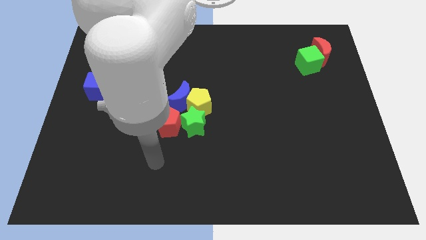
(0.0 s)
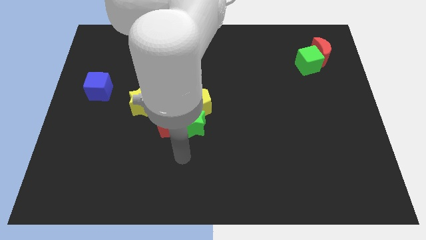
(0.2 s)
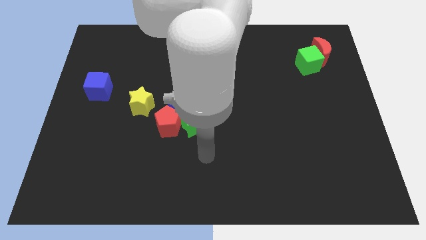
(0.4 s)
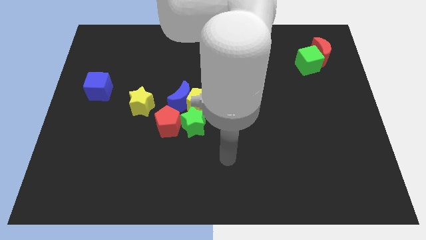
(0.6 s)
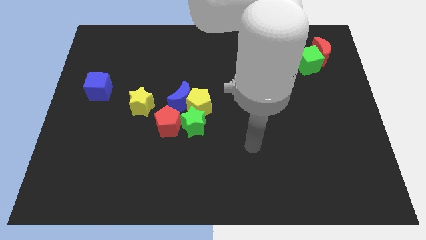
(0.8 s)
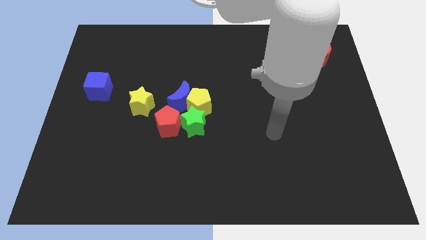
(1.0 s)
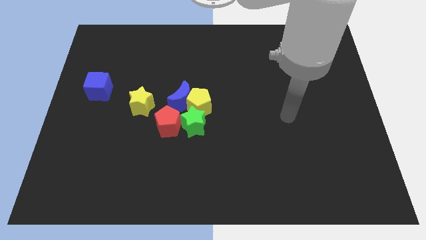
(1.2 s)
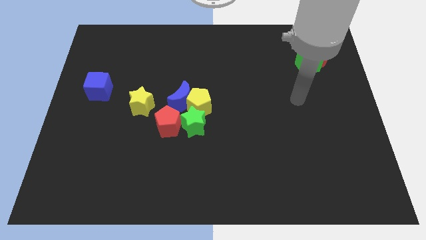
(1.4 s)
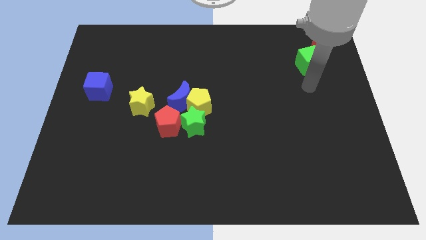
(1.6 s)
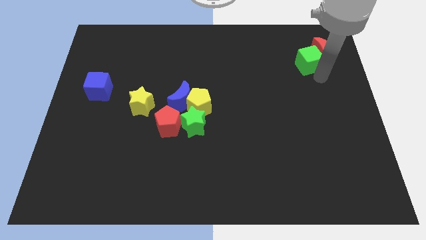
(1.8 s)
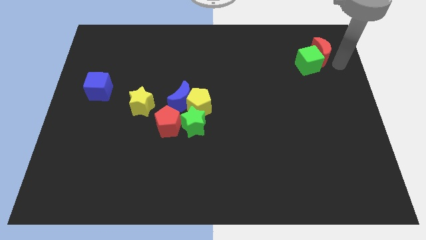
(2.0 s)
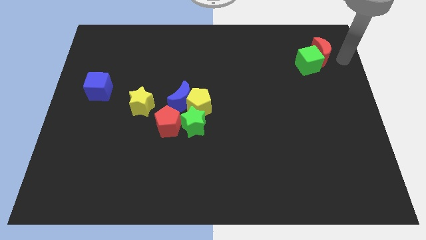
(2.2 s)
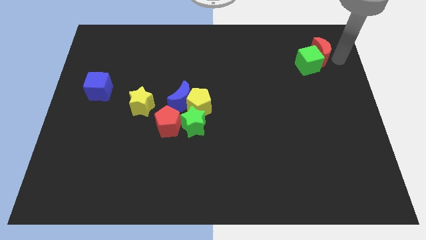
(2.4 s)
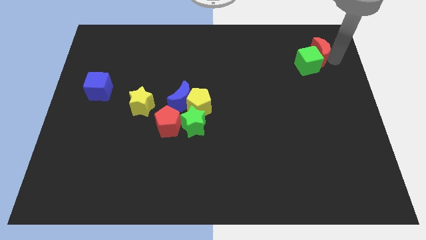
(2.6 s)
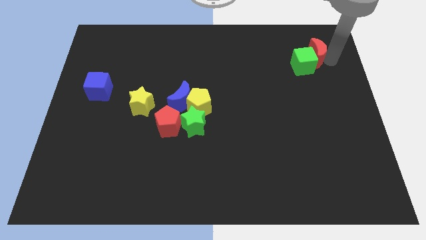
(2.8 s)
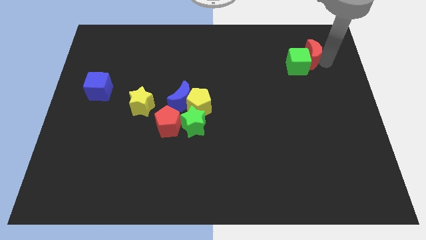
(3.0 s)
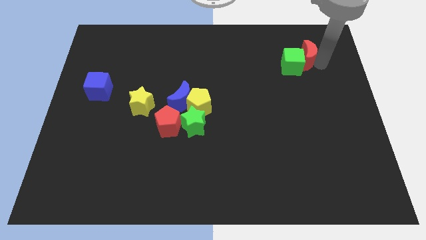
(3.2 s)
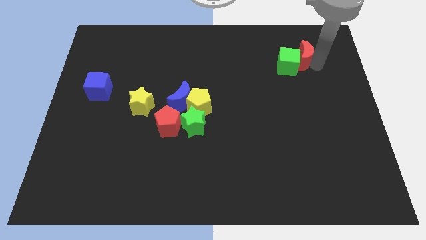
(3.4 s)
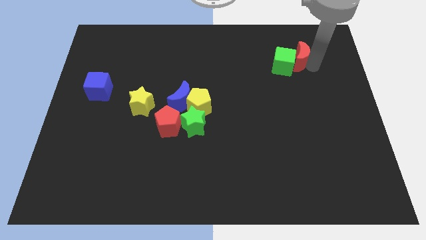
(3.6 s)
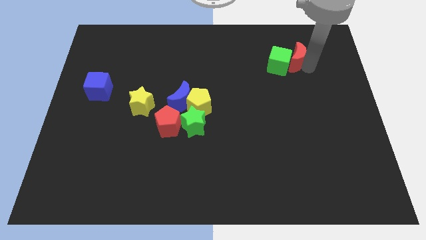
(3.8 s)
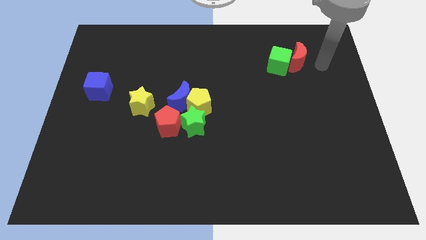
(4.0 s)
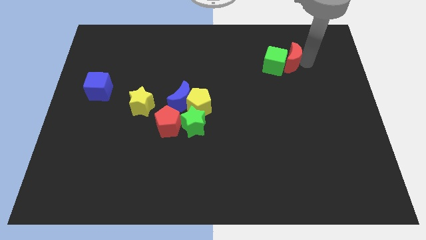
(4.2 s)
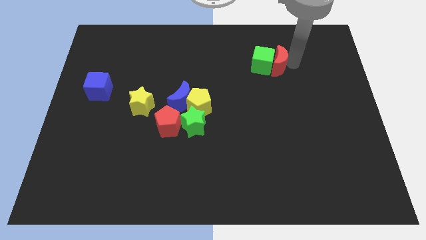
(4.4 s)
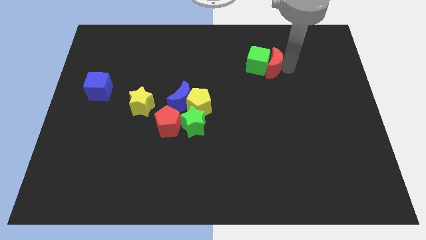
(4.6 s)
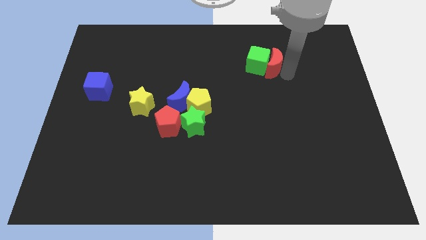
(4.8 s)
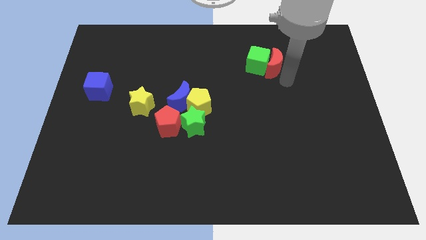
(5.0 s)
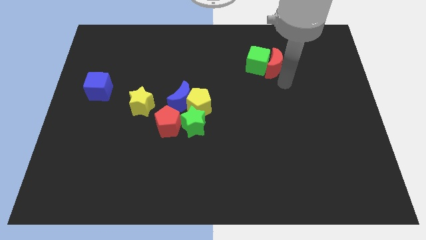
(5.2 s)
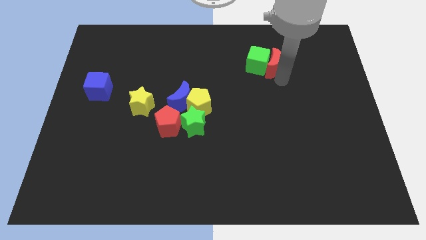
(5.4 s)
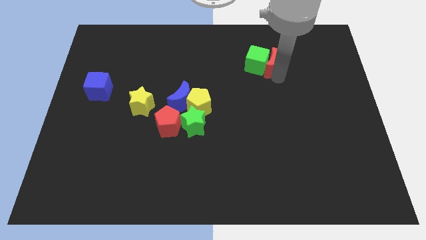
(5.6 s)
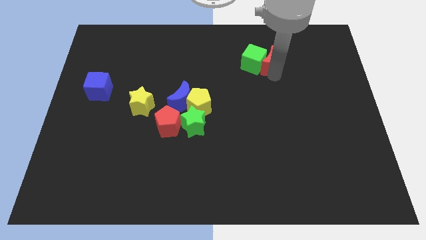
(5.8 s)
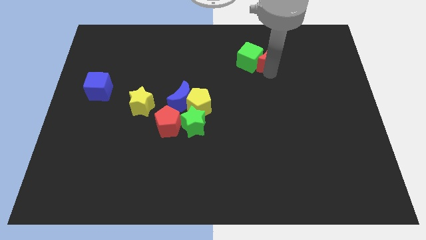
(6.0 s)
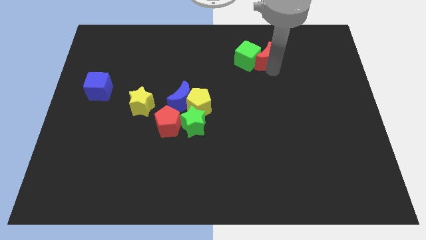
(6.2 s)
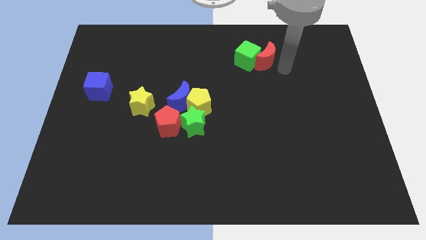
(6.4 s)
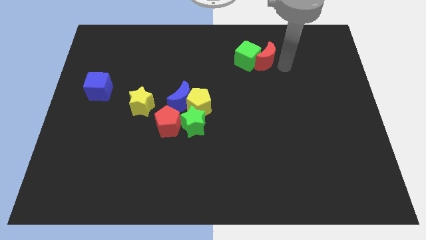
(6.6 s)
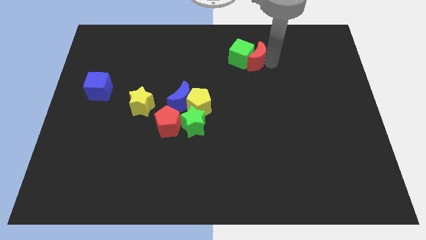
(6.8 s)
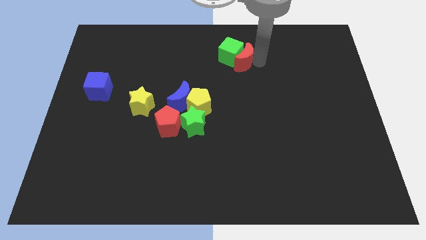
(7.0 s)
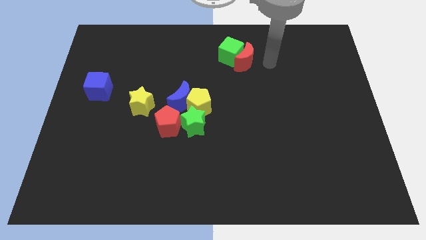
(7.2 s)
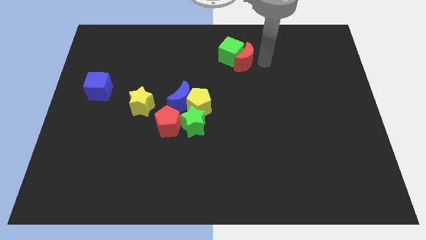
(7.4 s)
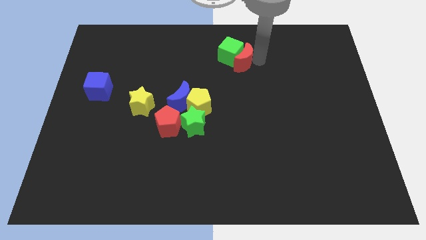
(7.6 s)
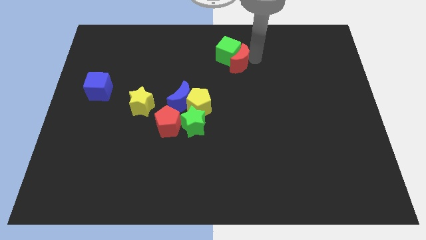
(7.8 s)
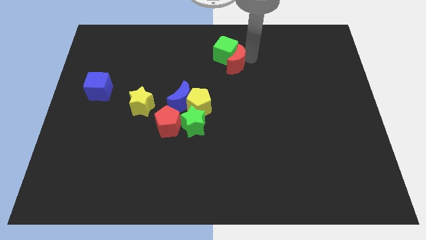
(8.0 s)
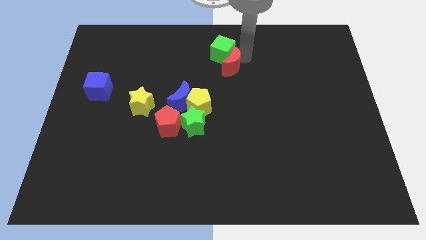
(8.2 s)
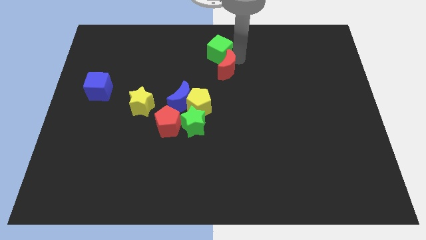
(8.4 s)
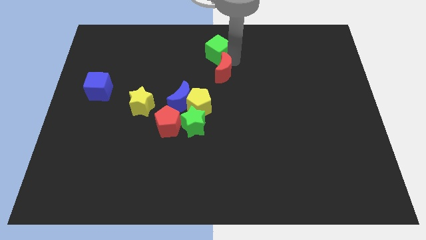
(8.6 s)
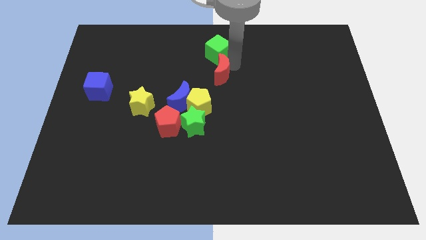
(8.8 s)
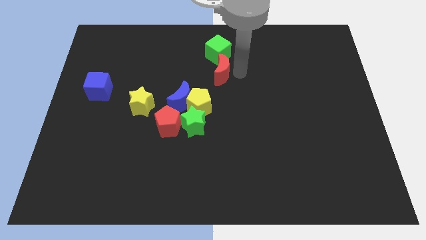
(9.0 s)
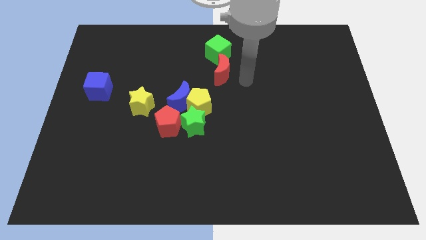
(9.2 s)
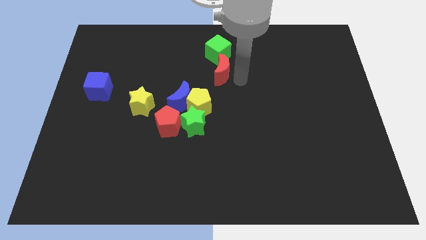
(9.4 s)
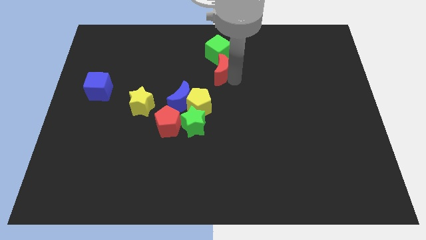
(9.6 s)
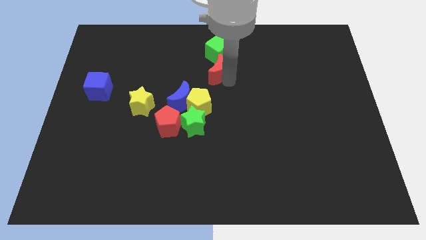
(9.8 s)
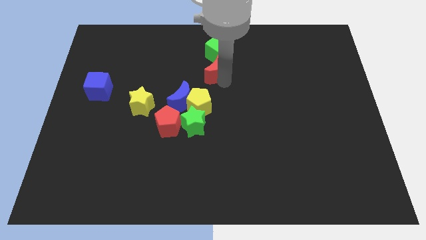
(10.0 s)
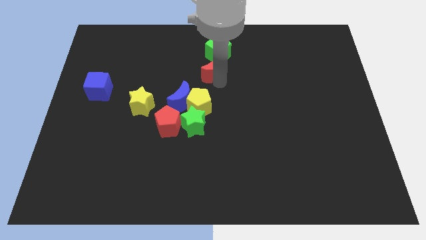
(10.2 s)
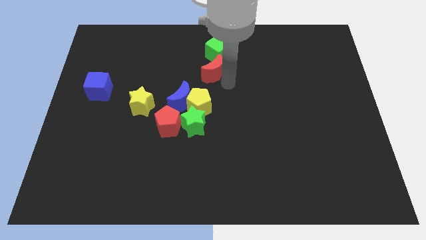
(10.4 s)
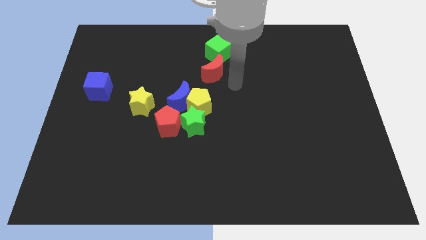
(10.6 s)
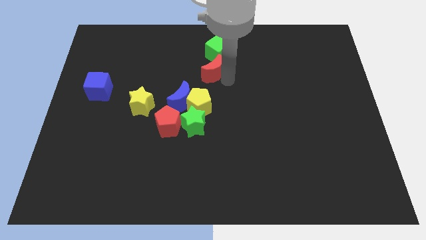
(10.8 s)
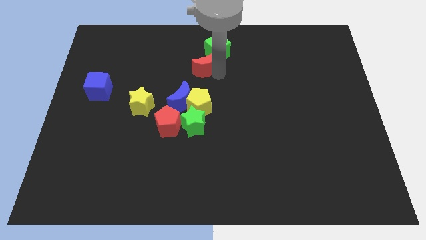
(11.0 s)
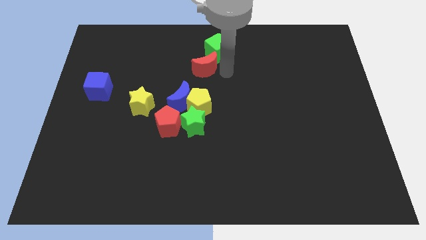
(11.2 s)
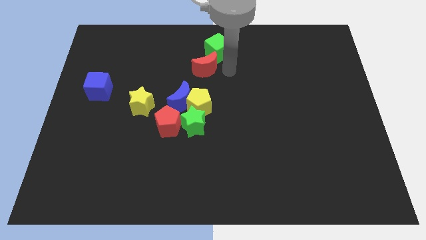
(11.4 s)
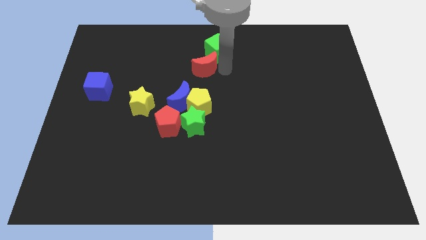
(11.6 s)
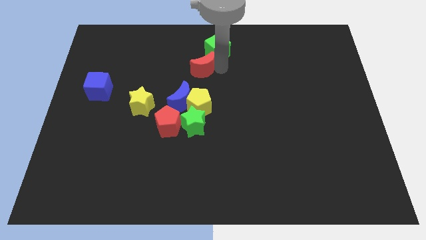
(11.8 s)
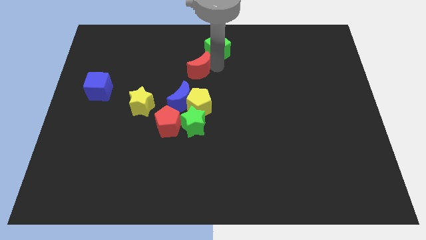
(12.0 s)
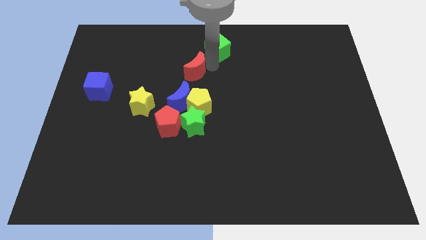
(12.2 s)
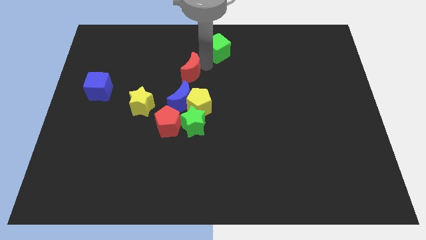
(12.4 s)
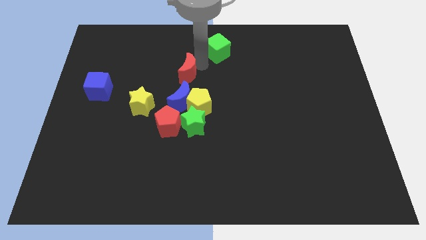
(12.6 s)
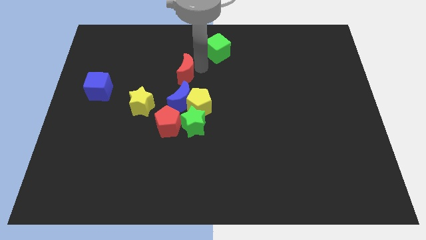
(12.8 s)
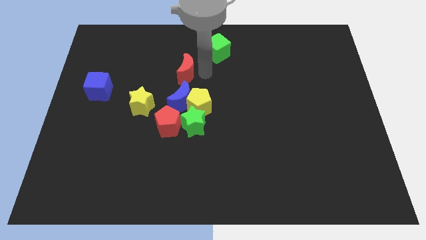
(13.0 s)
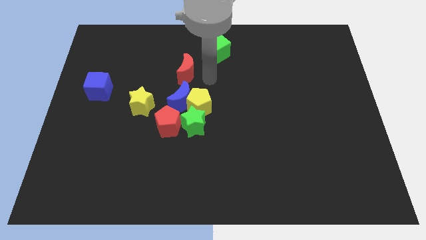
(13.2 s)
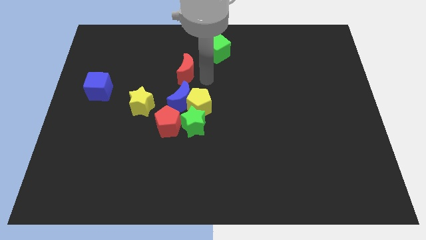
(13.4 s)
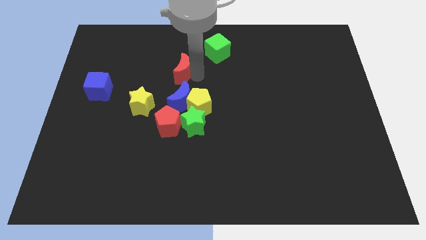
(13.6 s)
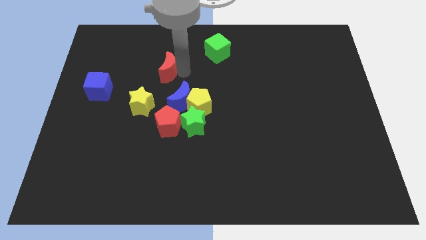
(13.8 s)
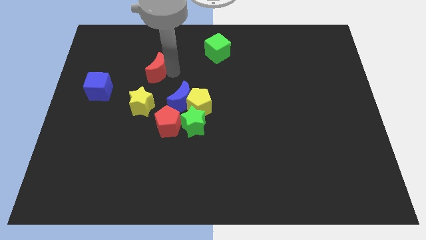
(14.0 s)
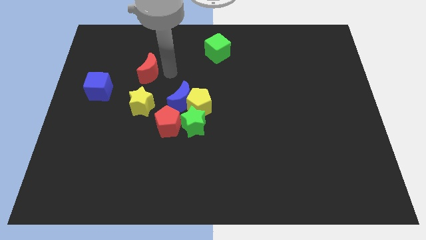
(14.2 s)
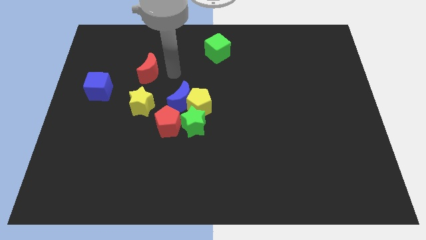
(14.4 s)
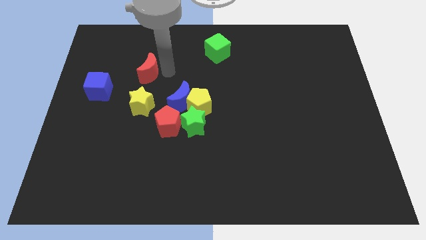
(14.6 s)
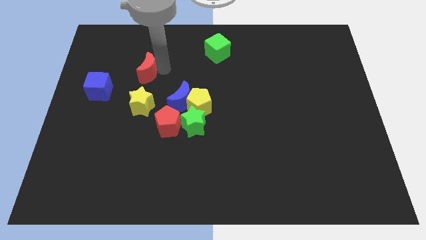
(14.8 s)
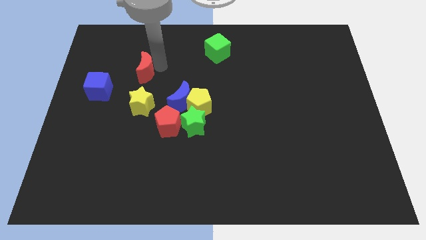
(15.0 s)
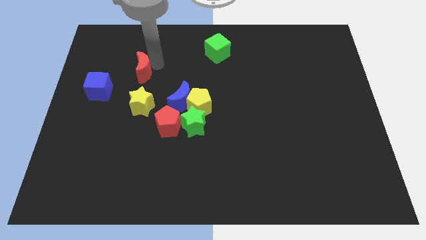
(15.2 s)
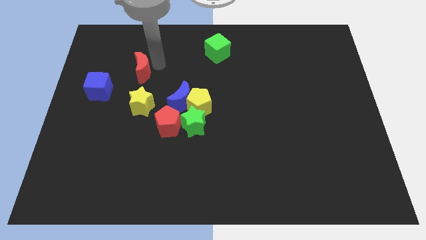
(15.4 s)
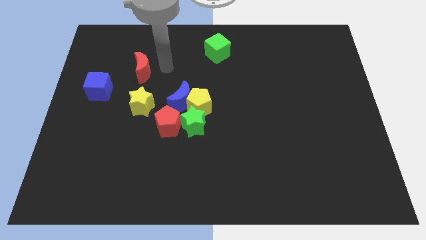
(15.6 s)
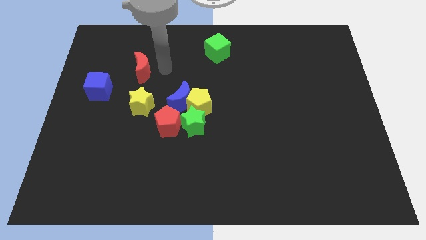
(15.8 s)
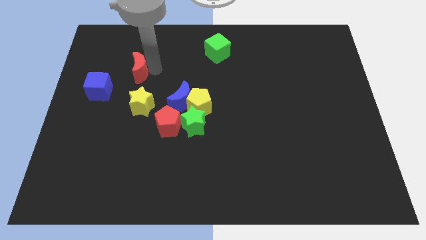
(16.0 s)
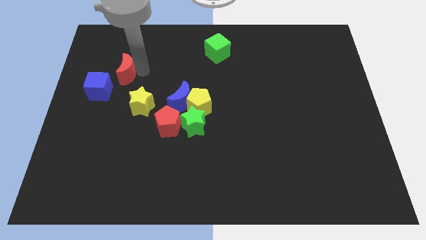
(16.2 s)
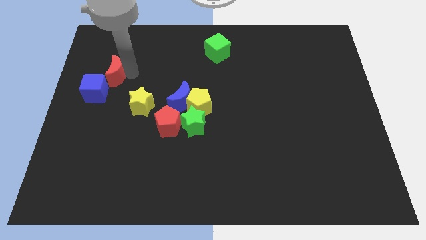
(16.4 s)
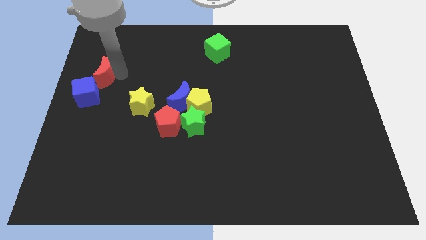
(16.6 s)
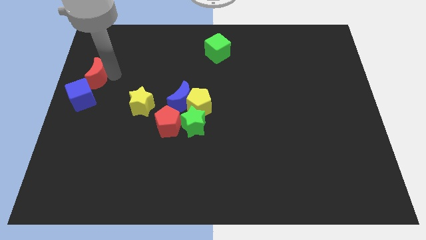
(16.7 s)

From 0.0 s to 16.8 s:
slide the red moon to the center left
